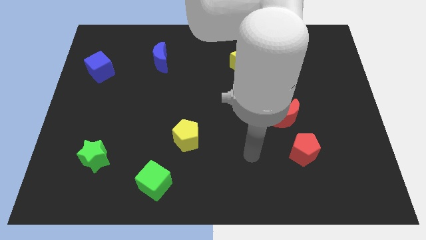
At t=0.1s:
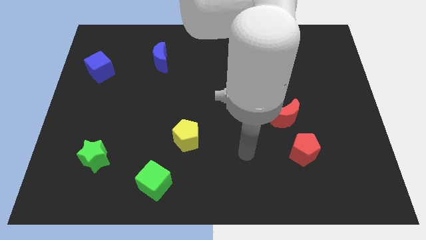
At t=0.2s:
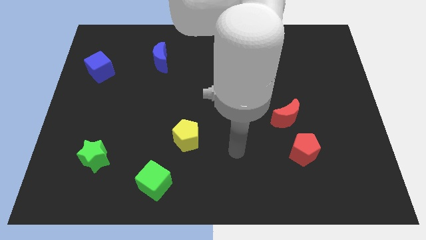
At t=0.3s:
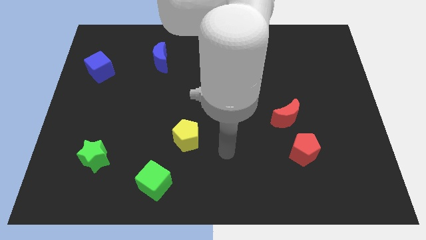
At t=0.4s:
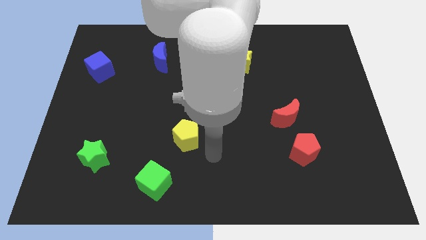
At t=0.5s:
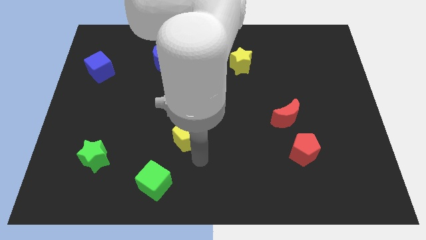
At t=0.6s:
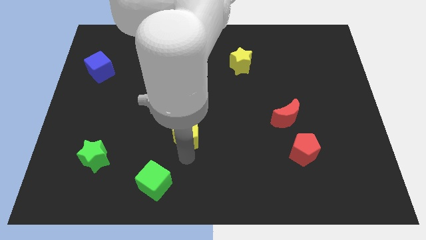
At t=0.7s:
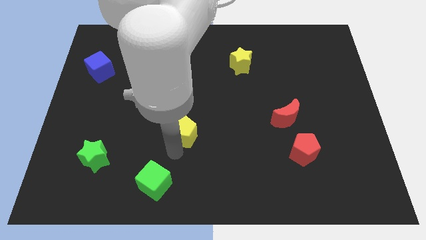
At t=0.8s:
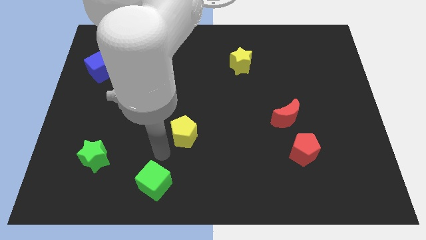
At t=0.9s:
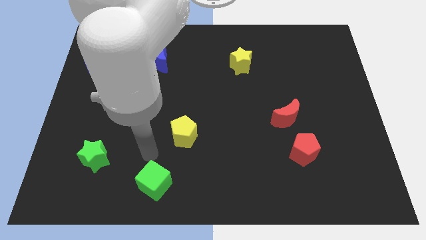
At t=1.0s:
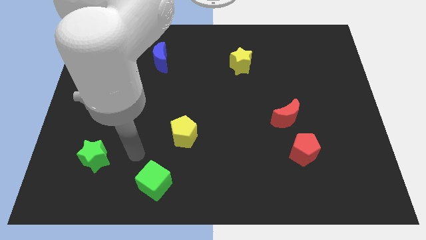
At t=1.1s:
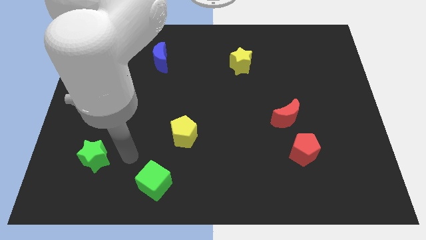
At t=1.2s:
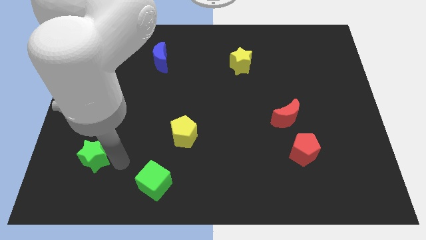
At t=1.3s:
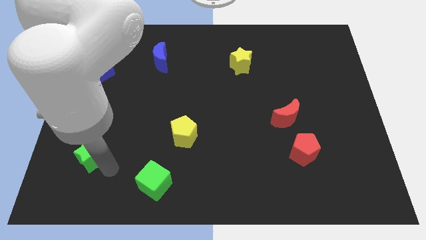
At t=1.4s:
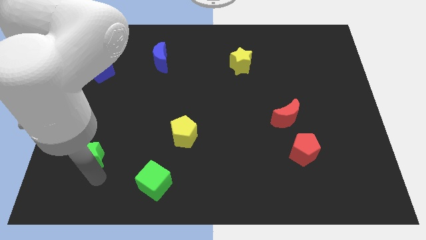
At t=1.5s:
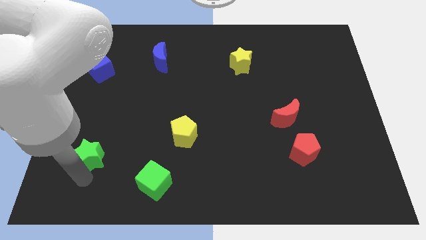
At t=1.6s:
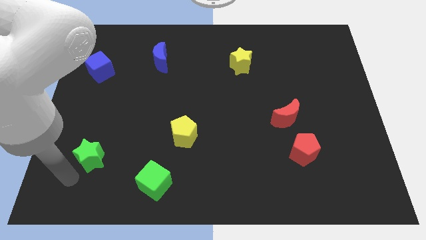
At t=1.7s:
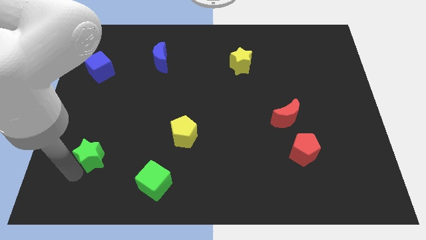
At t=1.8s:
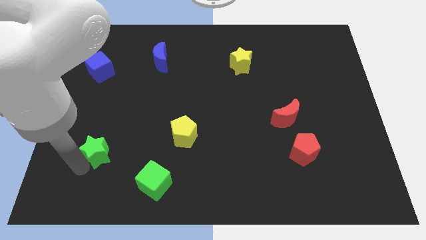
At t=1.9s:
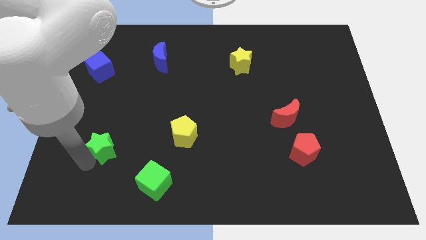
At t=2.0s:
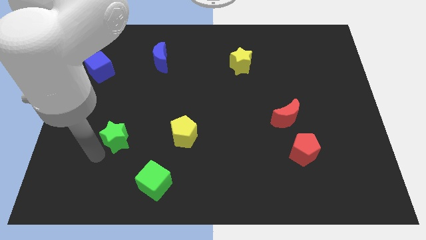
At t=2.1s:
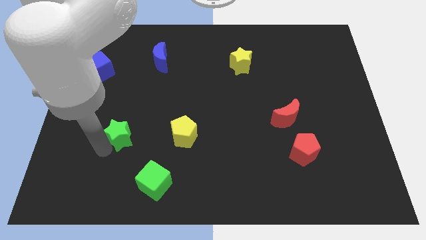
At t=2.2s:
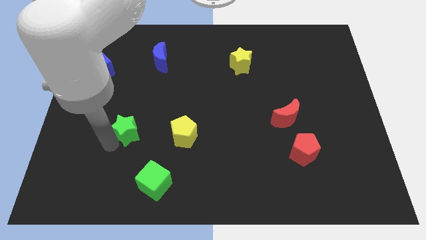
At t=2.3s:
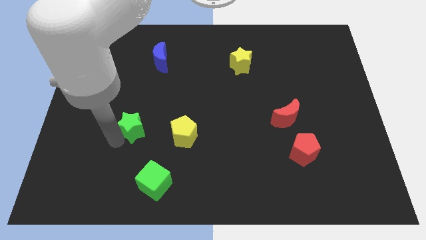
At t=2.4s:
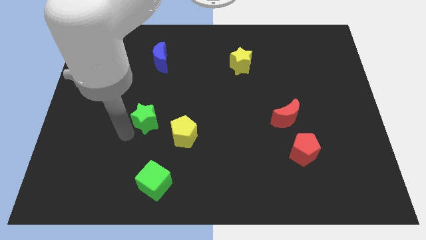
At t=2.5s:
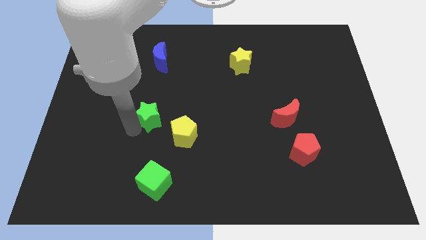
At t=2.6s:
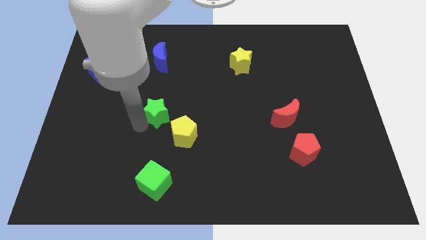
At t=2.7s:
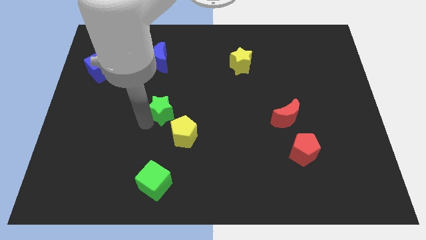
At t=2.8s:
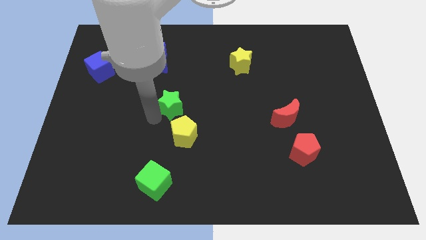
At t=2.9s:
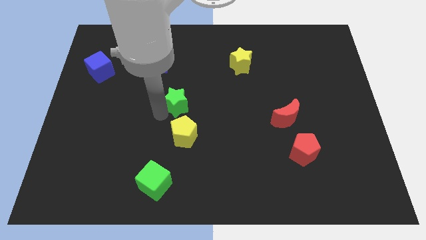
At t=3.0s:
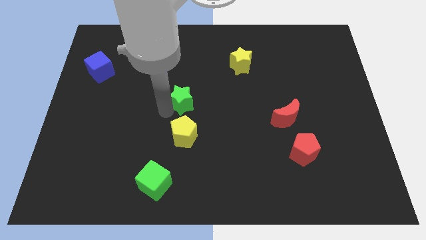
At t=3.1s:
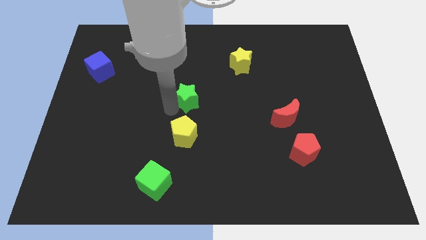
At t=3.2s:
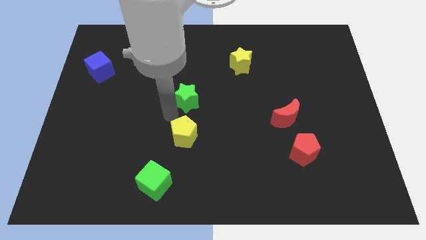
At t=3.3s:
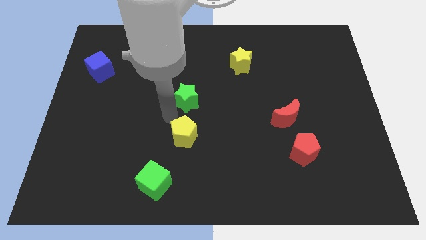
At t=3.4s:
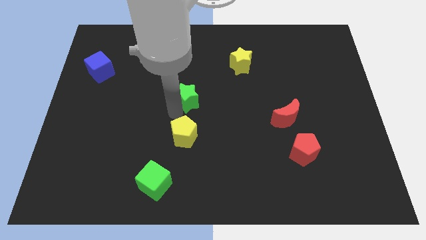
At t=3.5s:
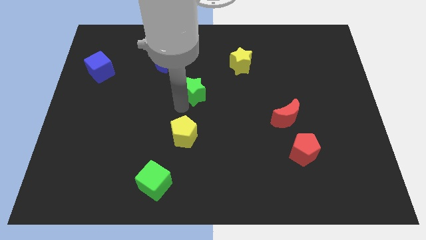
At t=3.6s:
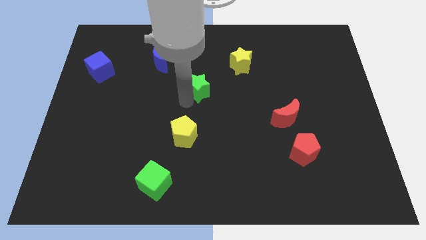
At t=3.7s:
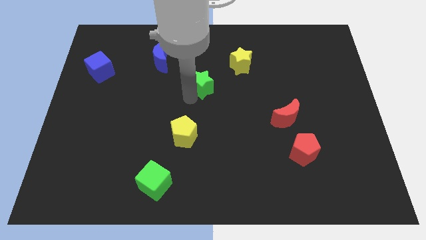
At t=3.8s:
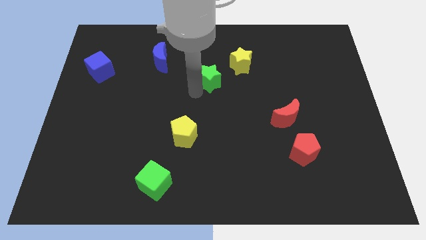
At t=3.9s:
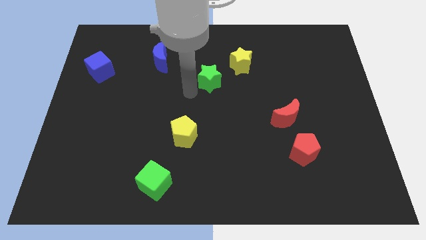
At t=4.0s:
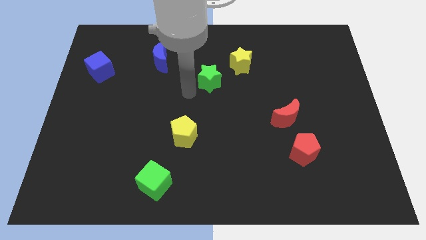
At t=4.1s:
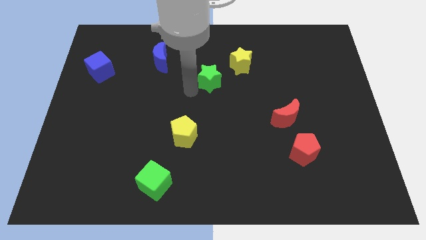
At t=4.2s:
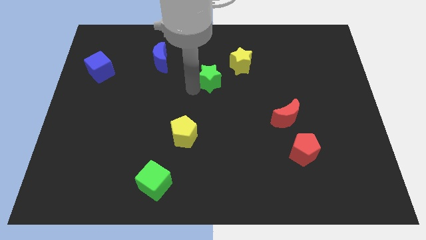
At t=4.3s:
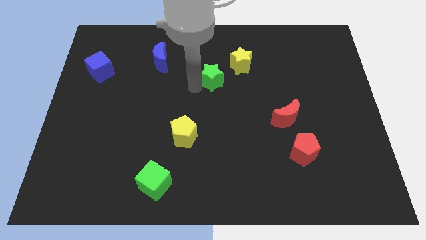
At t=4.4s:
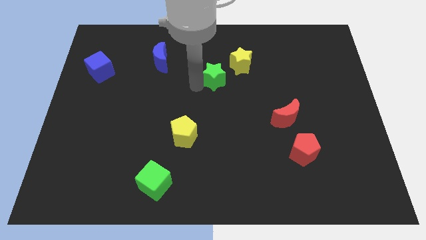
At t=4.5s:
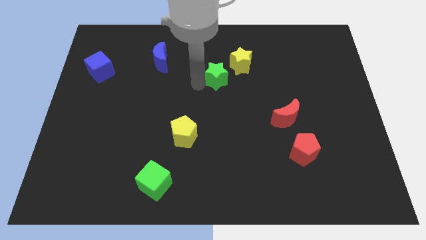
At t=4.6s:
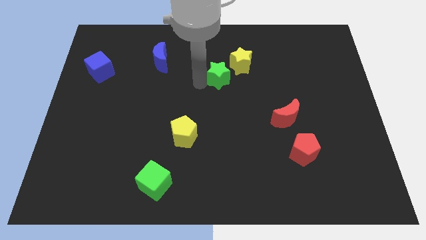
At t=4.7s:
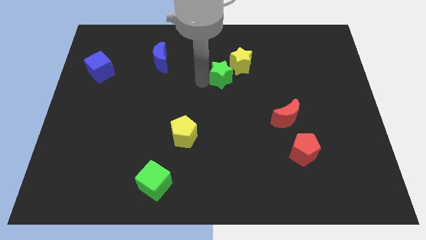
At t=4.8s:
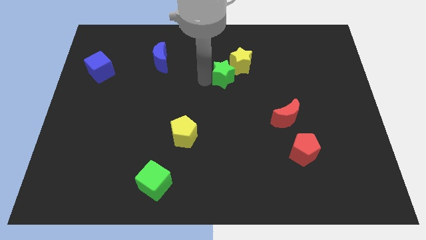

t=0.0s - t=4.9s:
move the green star to the yellow star

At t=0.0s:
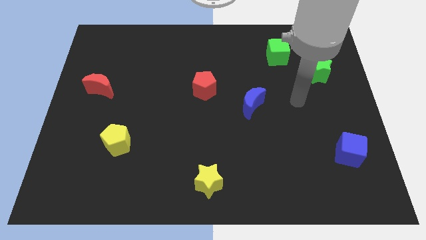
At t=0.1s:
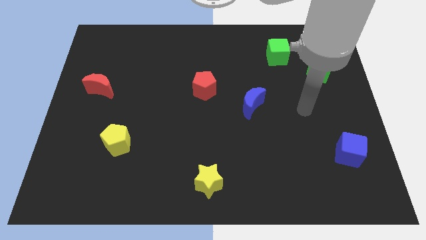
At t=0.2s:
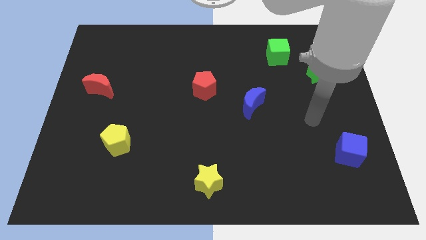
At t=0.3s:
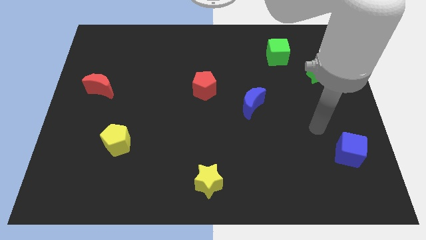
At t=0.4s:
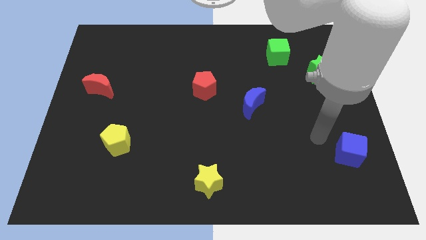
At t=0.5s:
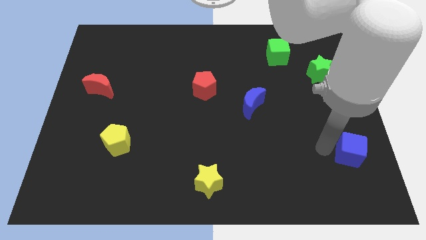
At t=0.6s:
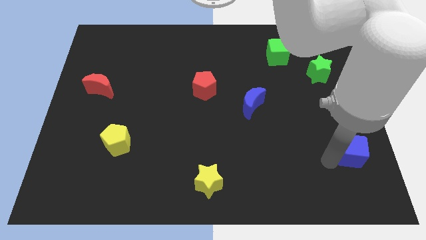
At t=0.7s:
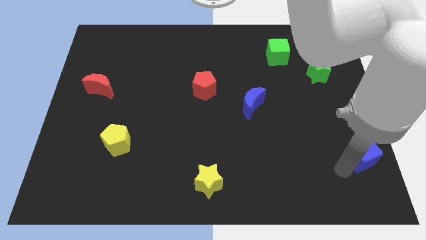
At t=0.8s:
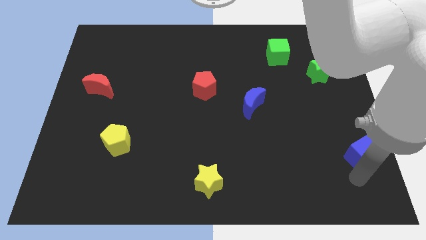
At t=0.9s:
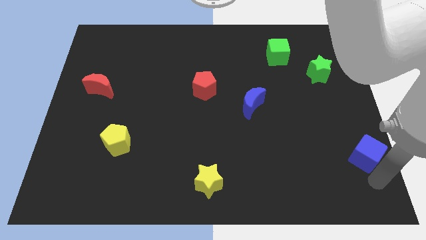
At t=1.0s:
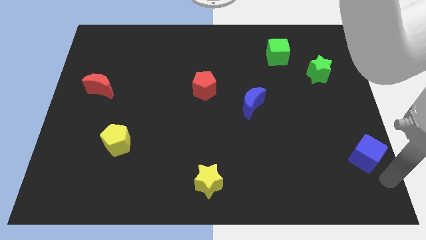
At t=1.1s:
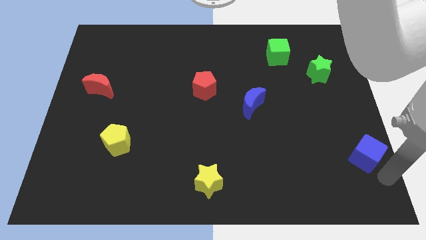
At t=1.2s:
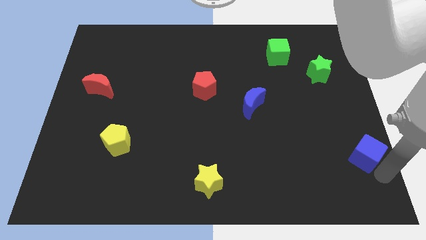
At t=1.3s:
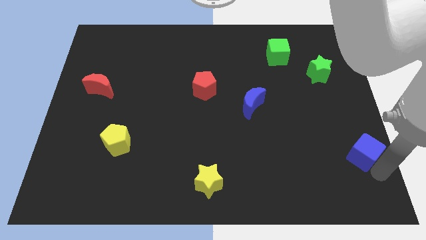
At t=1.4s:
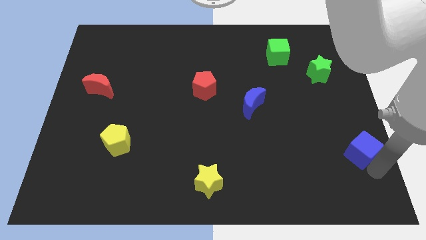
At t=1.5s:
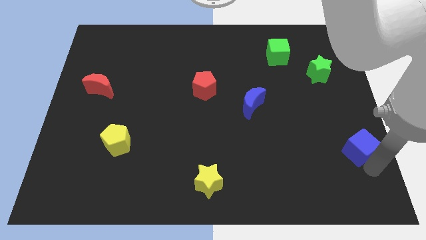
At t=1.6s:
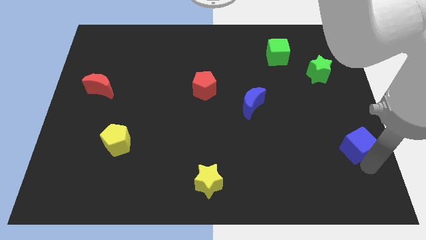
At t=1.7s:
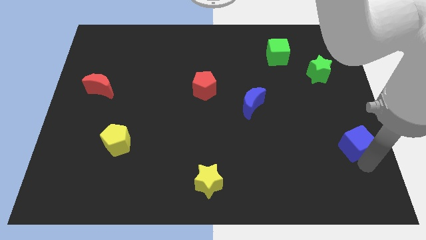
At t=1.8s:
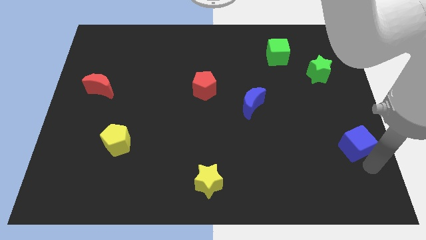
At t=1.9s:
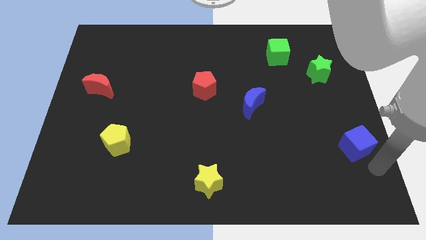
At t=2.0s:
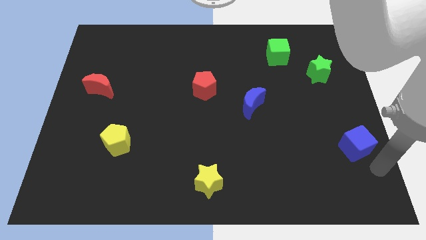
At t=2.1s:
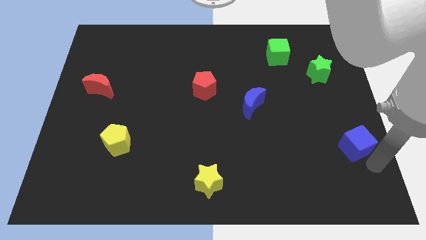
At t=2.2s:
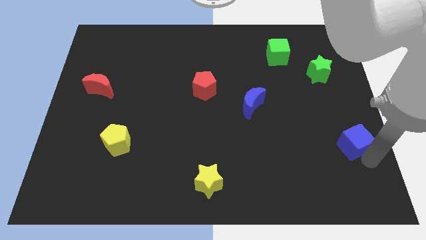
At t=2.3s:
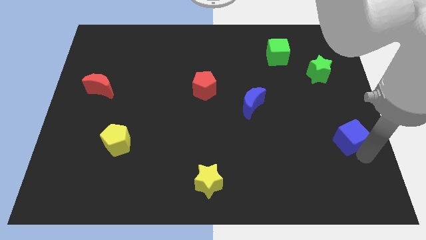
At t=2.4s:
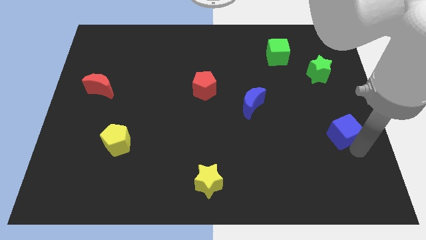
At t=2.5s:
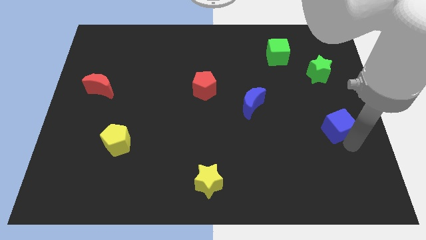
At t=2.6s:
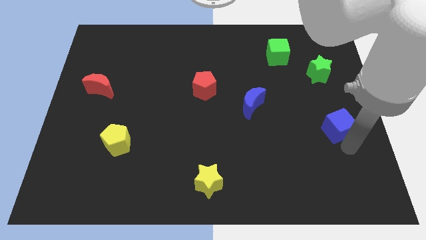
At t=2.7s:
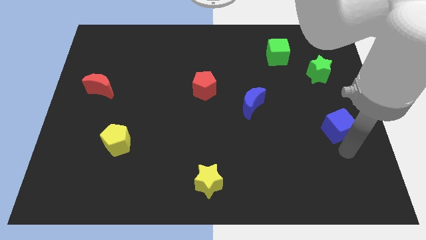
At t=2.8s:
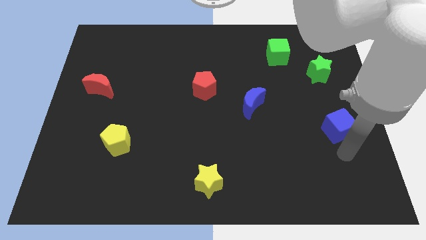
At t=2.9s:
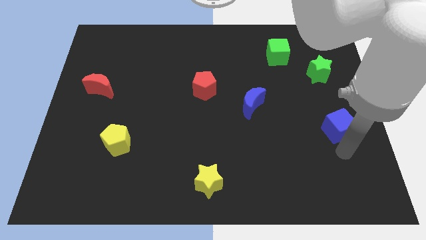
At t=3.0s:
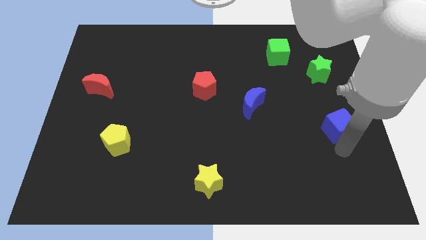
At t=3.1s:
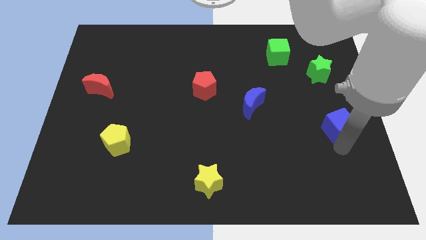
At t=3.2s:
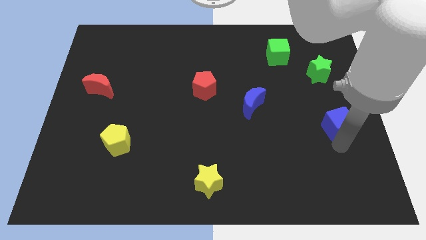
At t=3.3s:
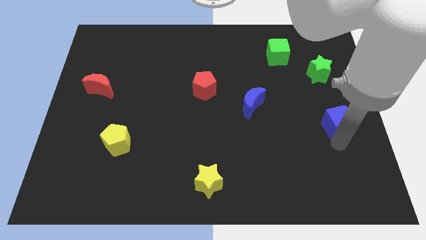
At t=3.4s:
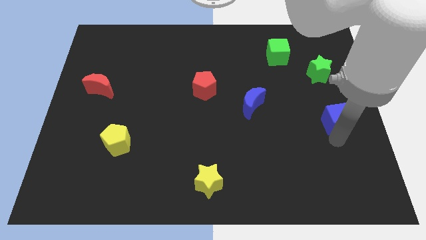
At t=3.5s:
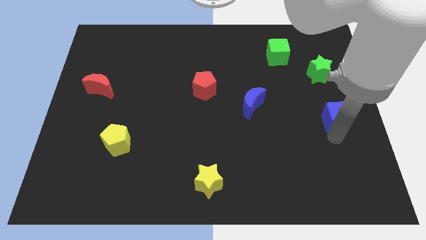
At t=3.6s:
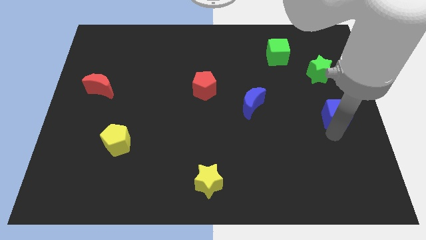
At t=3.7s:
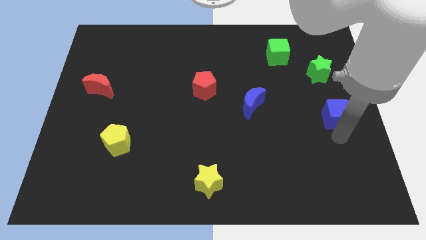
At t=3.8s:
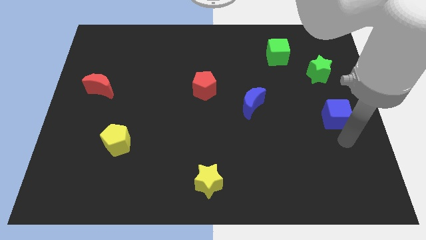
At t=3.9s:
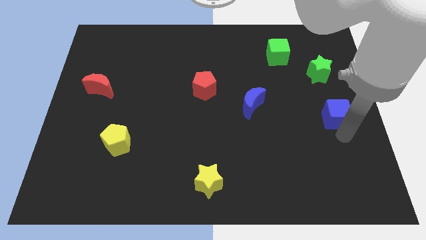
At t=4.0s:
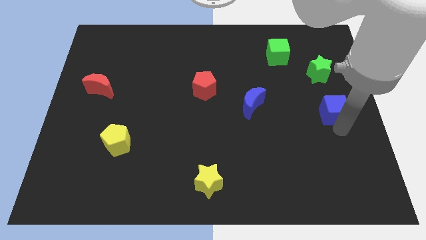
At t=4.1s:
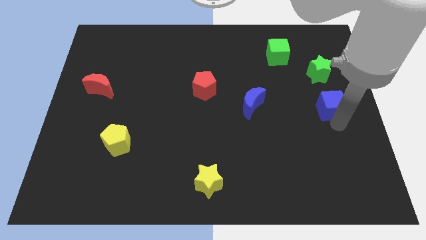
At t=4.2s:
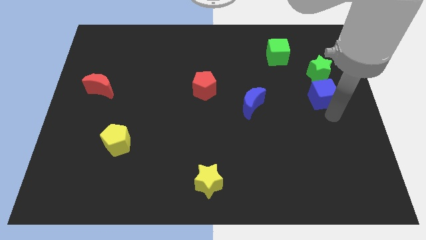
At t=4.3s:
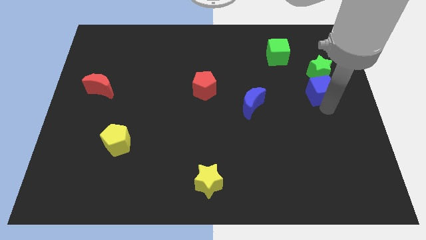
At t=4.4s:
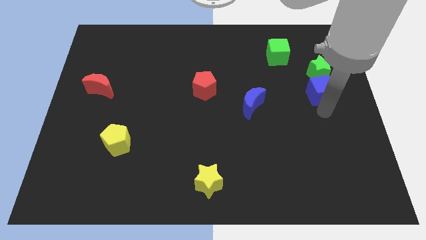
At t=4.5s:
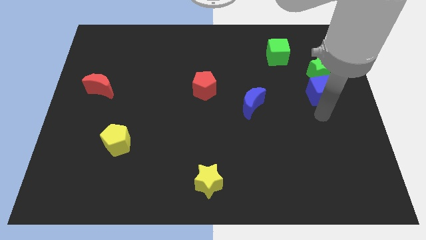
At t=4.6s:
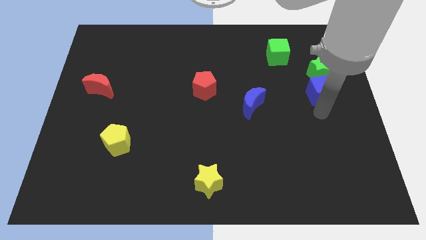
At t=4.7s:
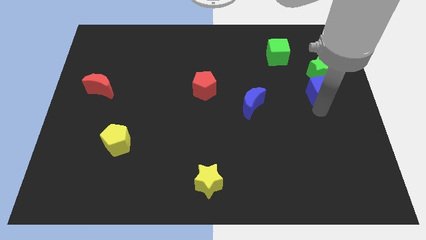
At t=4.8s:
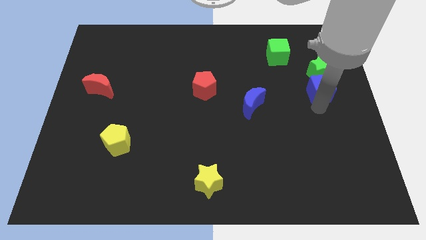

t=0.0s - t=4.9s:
move the blue cube to the green star
